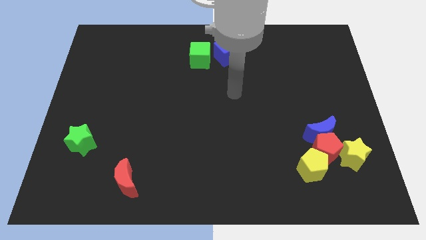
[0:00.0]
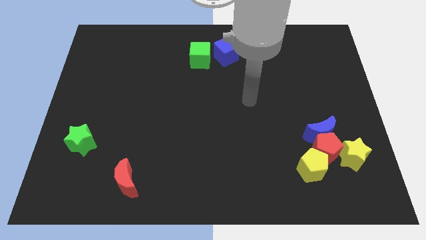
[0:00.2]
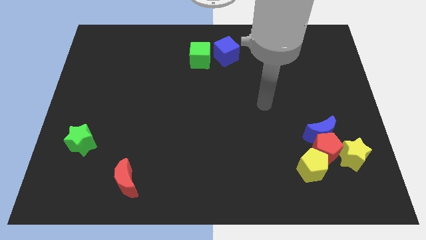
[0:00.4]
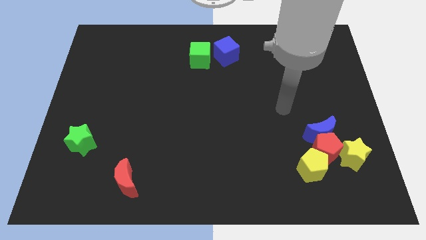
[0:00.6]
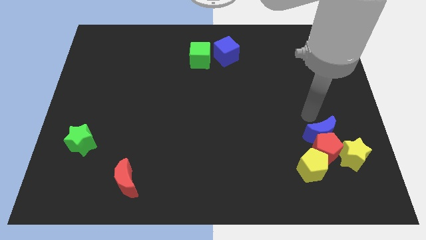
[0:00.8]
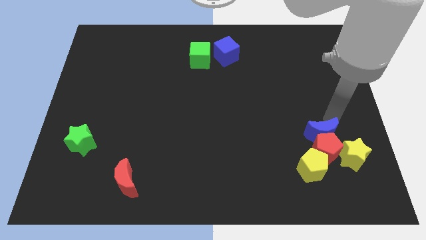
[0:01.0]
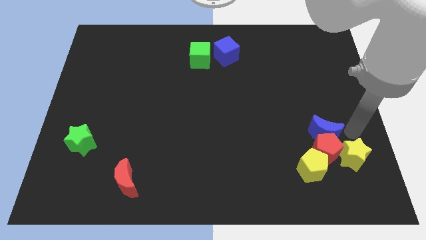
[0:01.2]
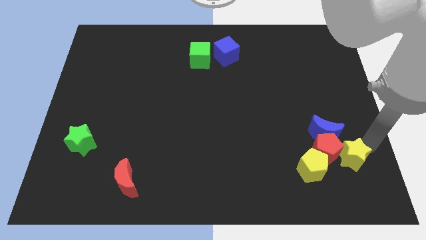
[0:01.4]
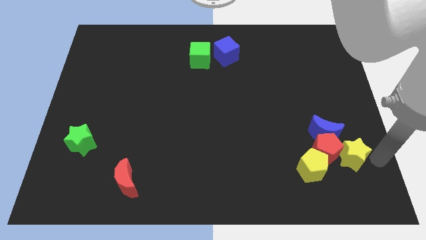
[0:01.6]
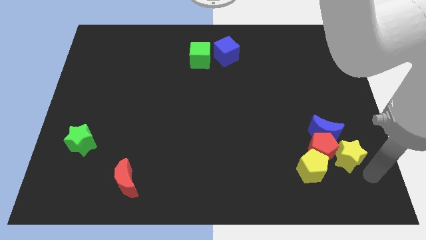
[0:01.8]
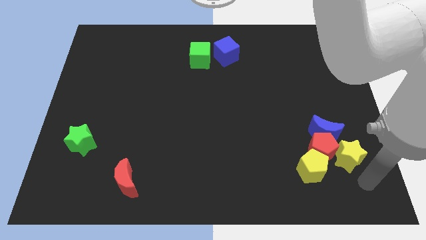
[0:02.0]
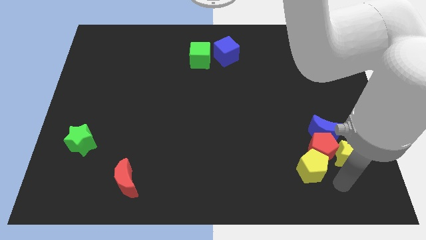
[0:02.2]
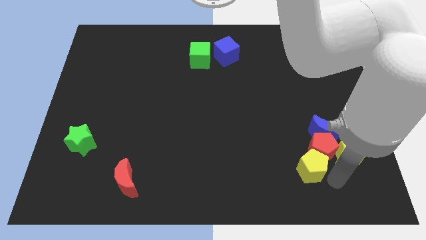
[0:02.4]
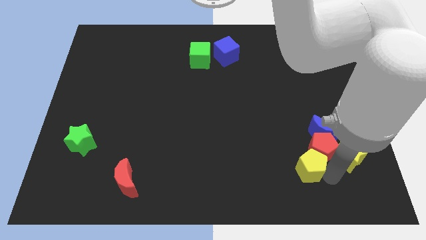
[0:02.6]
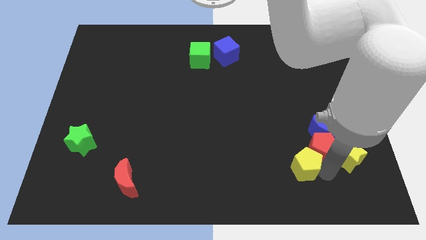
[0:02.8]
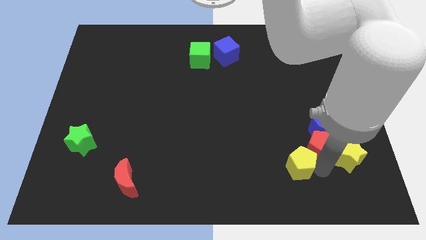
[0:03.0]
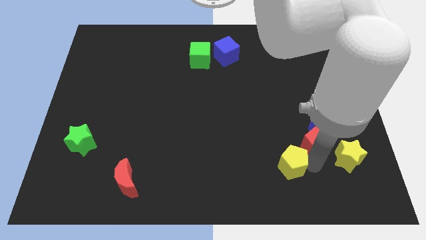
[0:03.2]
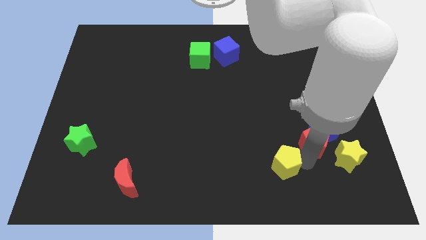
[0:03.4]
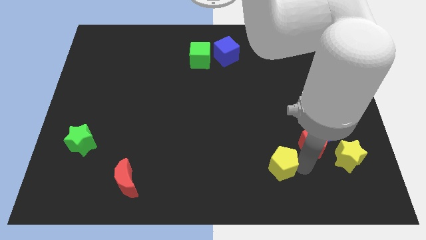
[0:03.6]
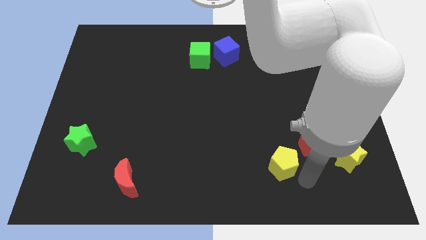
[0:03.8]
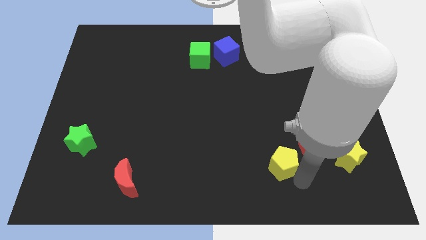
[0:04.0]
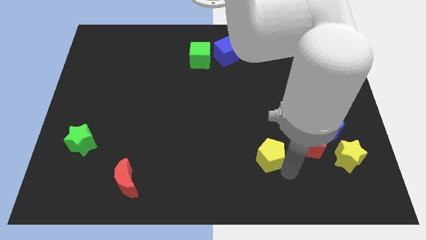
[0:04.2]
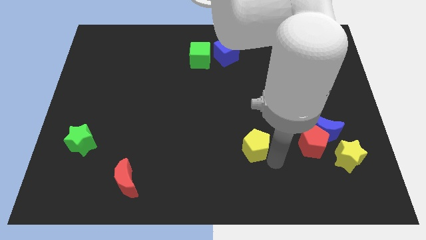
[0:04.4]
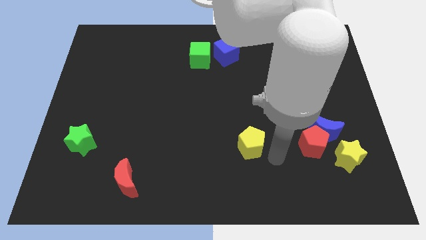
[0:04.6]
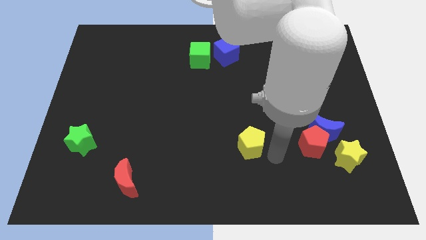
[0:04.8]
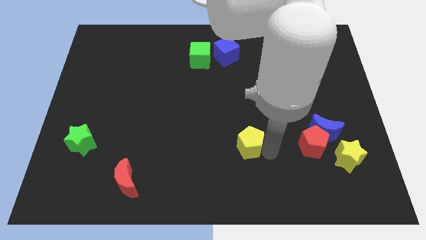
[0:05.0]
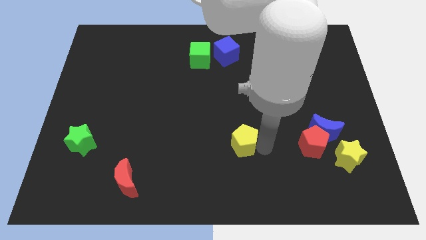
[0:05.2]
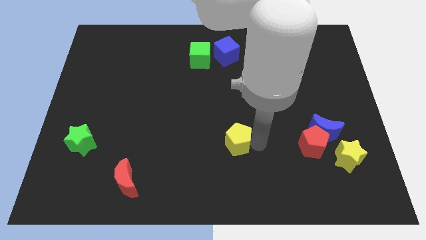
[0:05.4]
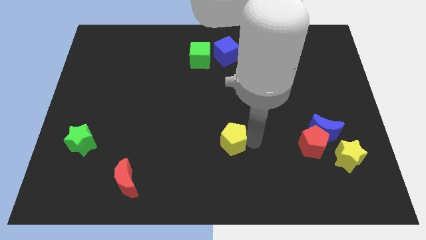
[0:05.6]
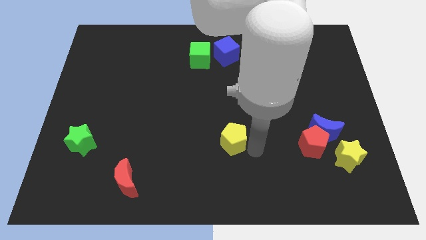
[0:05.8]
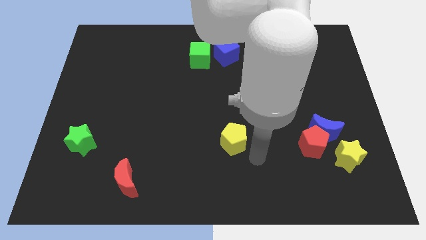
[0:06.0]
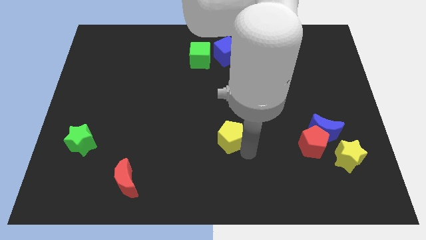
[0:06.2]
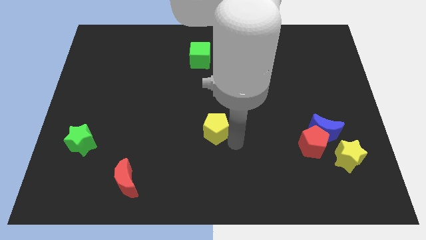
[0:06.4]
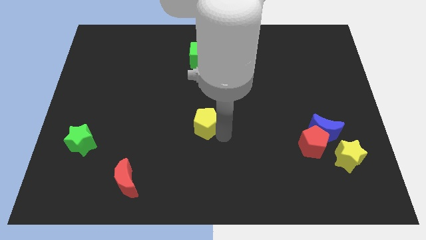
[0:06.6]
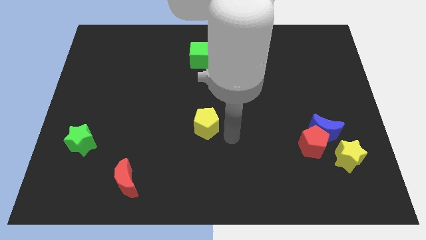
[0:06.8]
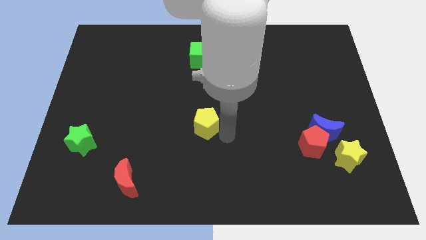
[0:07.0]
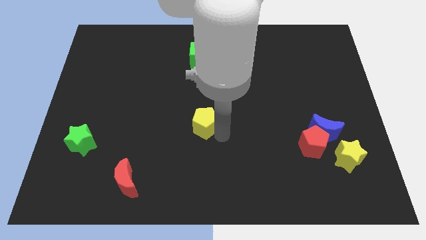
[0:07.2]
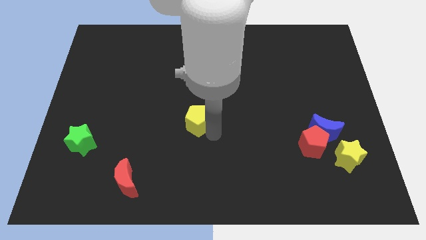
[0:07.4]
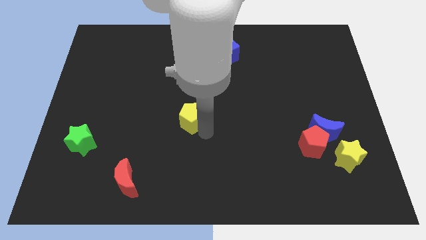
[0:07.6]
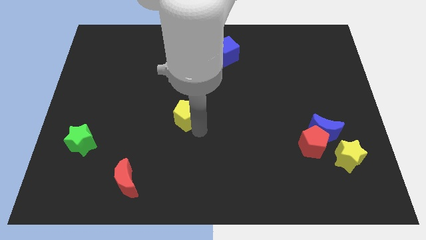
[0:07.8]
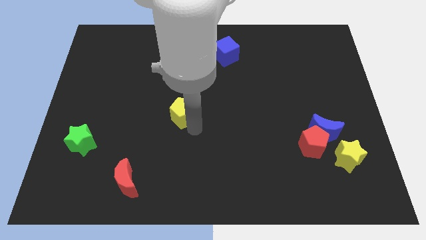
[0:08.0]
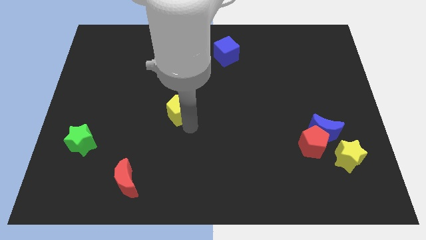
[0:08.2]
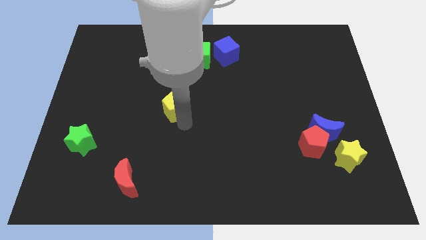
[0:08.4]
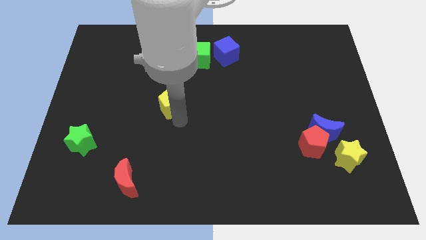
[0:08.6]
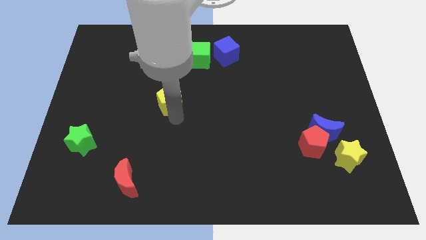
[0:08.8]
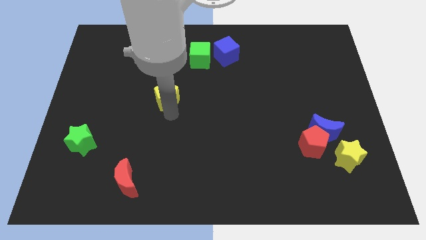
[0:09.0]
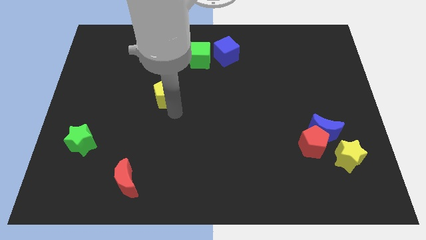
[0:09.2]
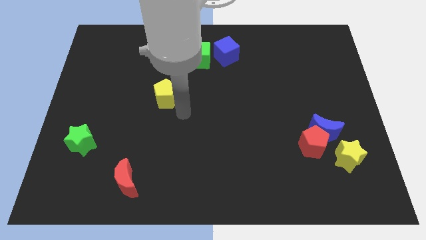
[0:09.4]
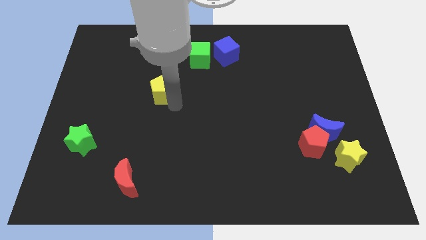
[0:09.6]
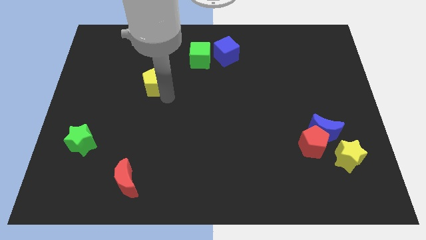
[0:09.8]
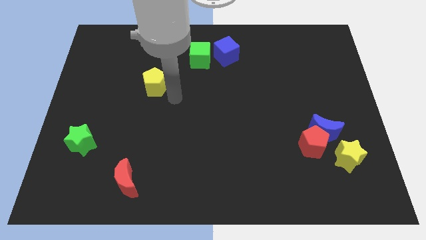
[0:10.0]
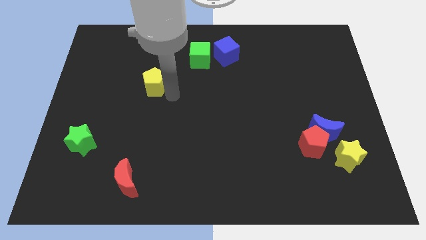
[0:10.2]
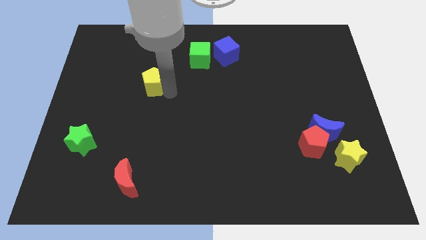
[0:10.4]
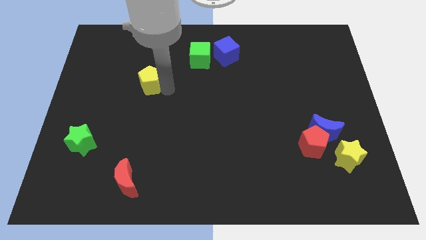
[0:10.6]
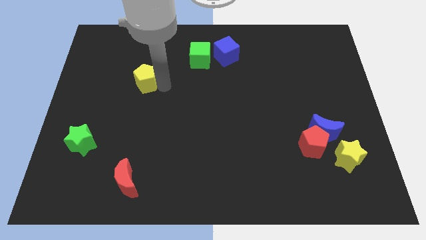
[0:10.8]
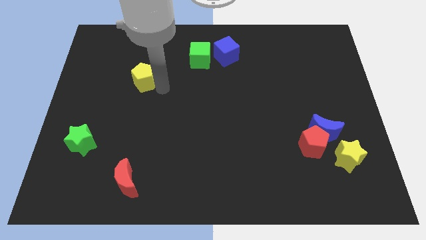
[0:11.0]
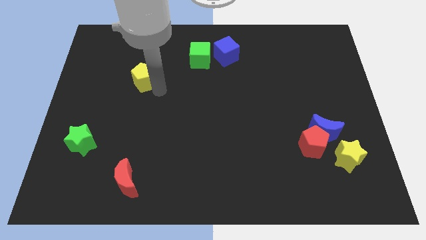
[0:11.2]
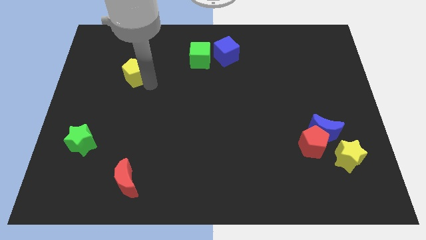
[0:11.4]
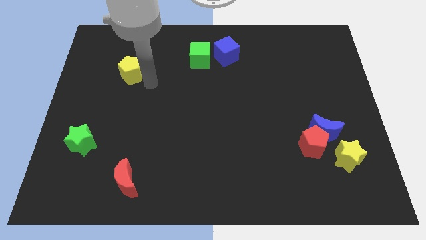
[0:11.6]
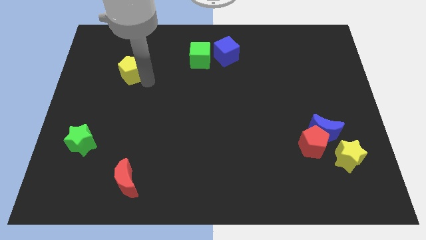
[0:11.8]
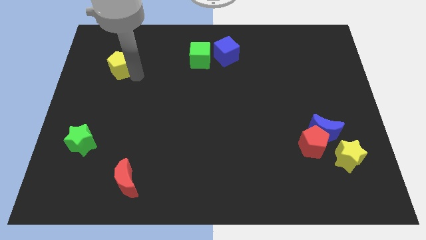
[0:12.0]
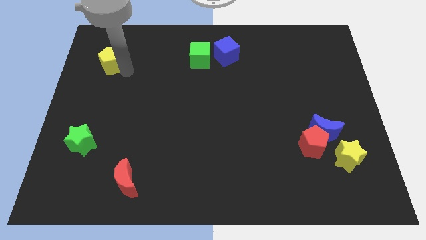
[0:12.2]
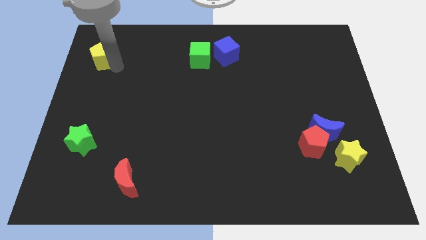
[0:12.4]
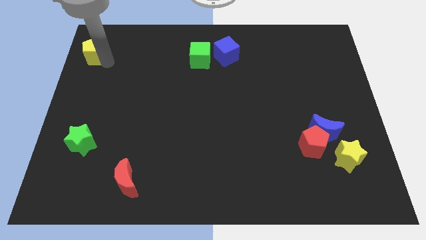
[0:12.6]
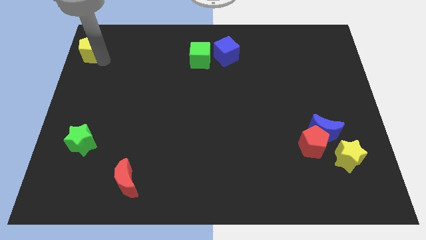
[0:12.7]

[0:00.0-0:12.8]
slide the yellow pentagon to the upper left corner
